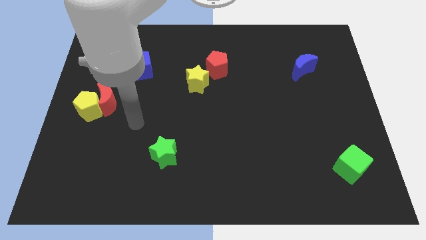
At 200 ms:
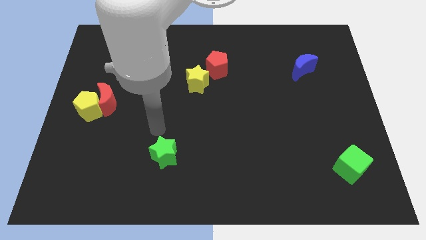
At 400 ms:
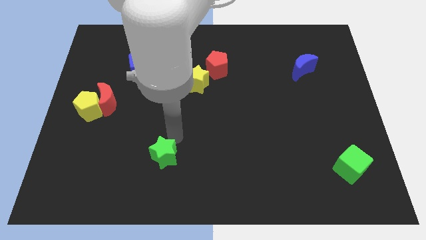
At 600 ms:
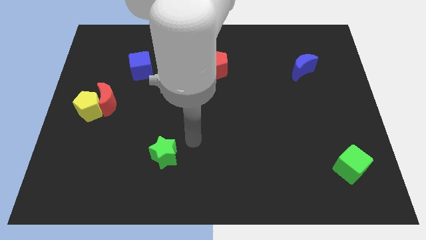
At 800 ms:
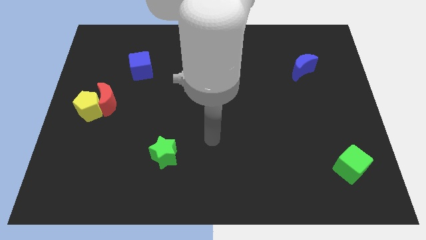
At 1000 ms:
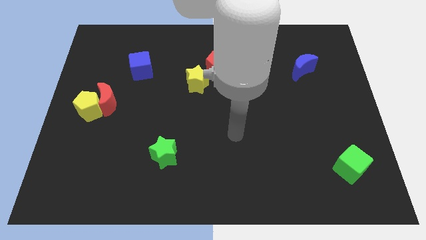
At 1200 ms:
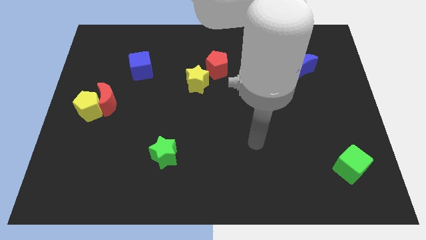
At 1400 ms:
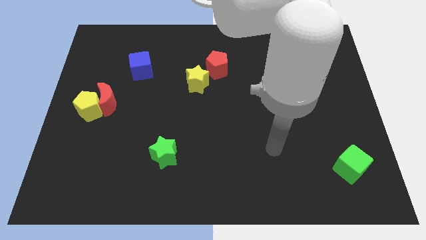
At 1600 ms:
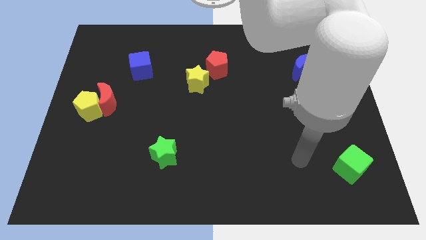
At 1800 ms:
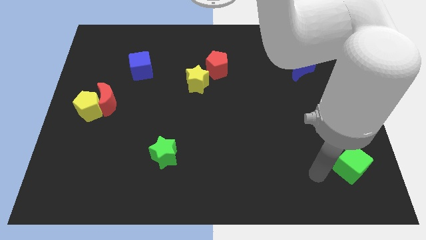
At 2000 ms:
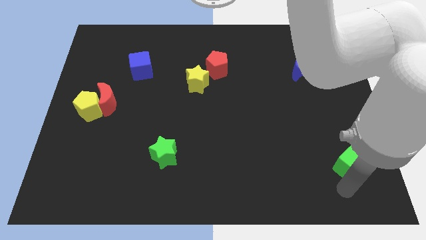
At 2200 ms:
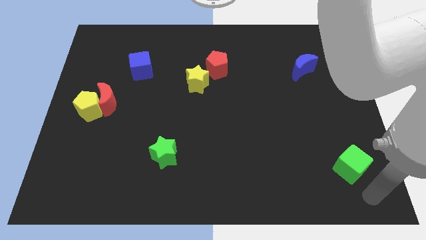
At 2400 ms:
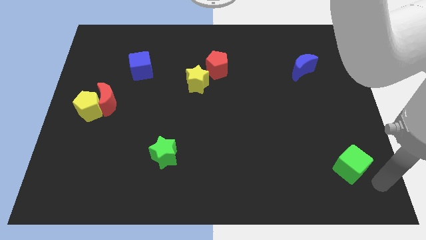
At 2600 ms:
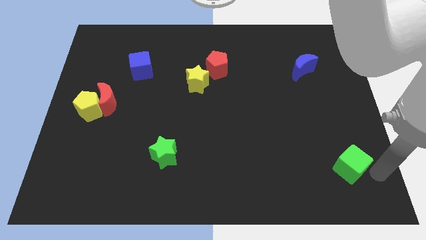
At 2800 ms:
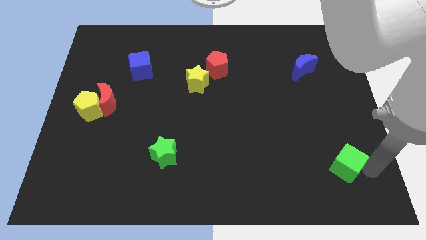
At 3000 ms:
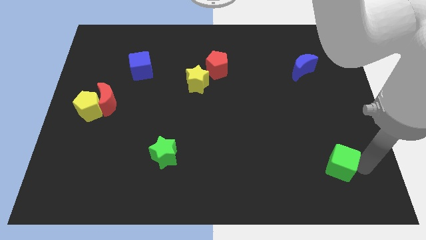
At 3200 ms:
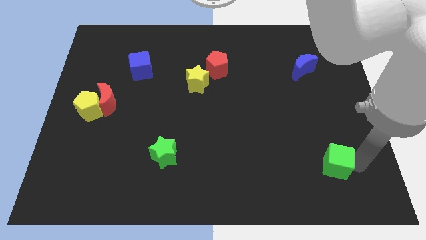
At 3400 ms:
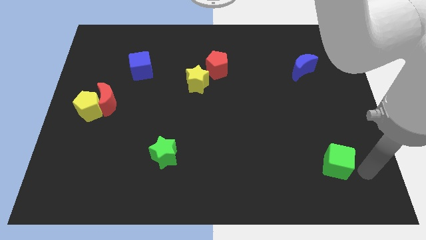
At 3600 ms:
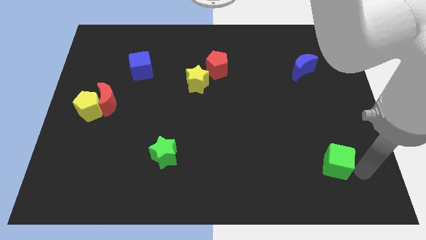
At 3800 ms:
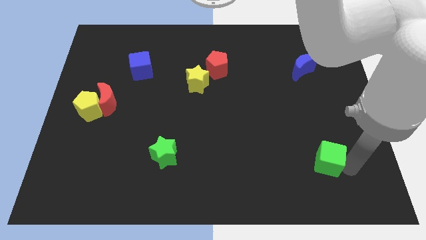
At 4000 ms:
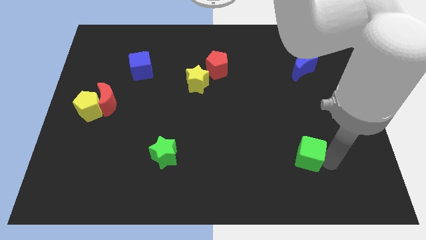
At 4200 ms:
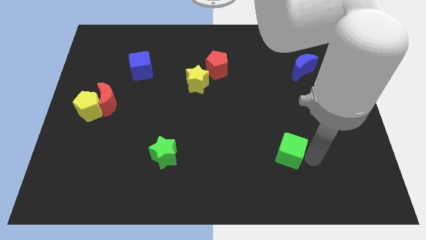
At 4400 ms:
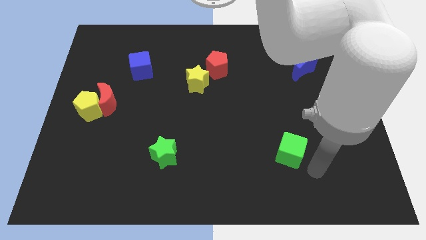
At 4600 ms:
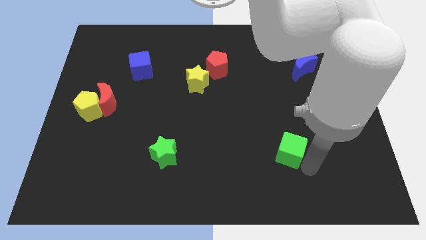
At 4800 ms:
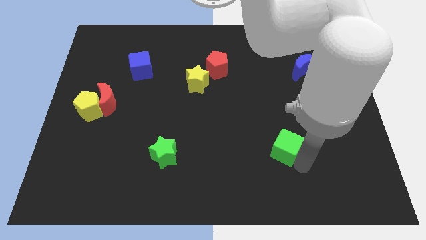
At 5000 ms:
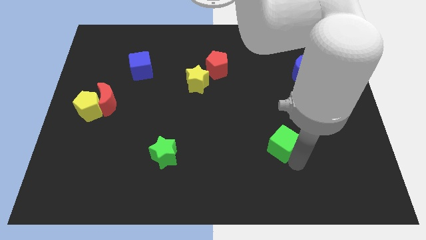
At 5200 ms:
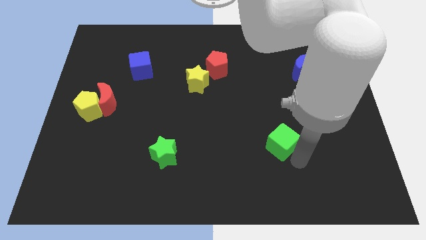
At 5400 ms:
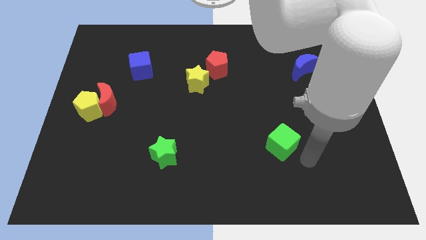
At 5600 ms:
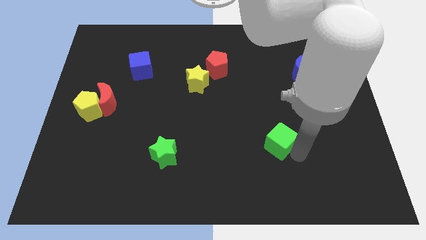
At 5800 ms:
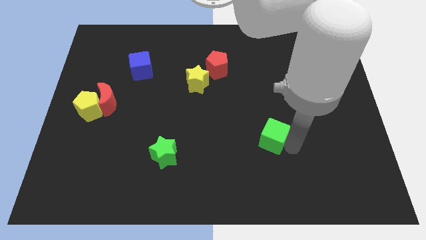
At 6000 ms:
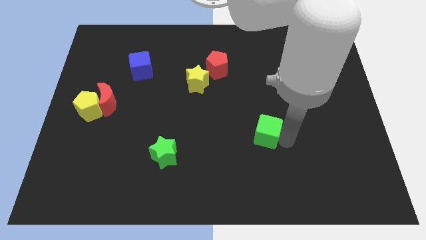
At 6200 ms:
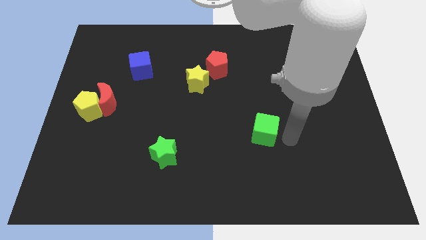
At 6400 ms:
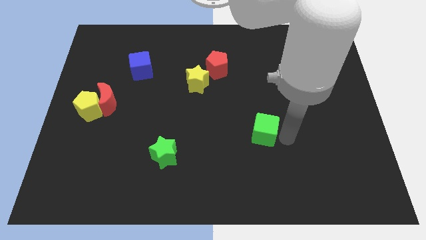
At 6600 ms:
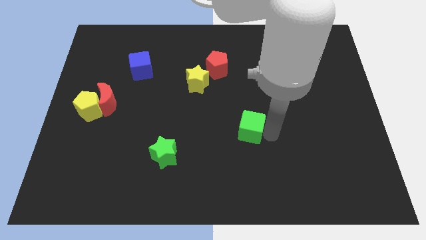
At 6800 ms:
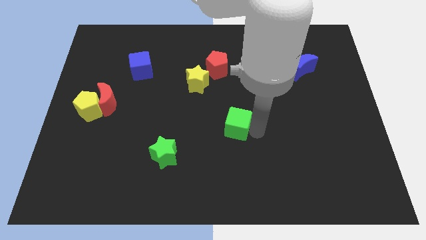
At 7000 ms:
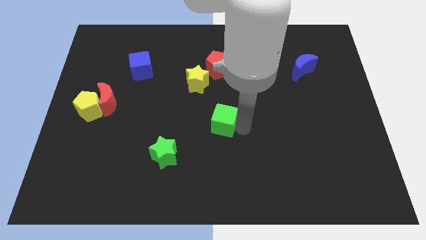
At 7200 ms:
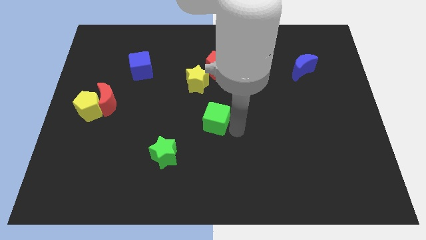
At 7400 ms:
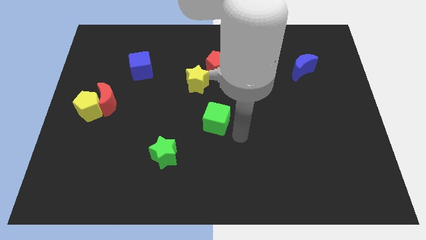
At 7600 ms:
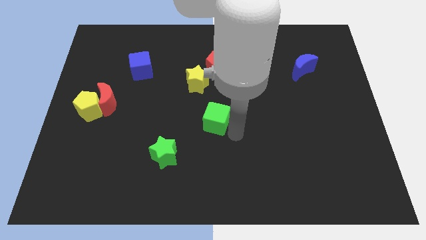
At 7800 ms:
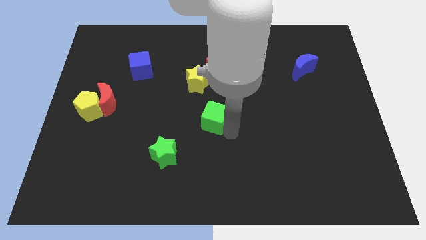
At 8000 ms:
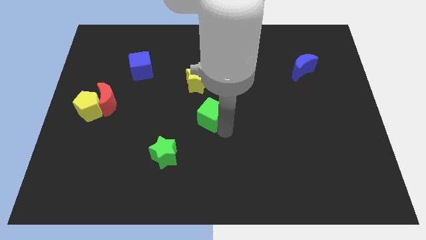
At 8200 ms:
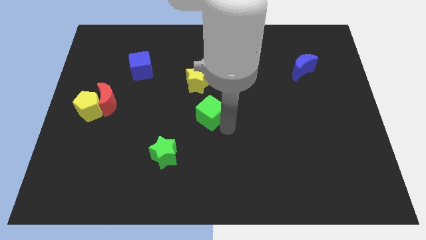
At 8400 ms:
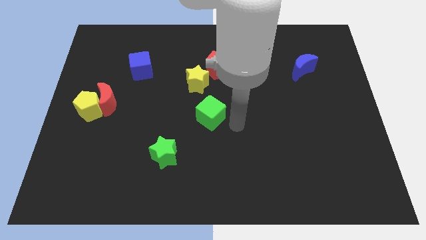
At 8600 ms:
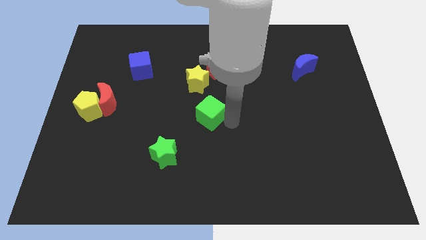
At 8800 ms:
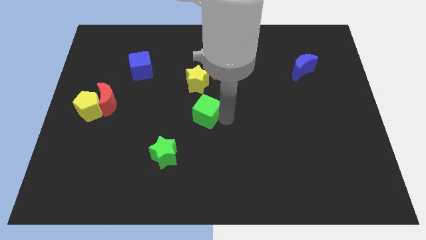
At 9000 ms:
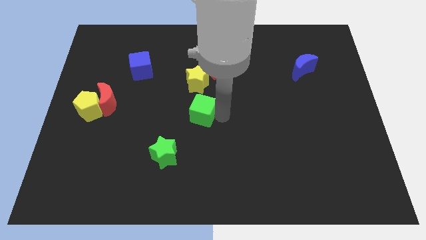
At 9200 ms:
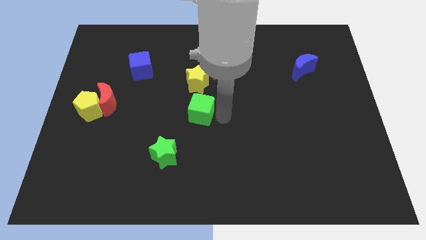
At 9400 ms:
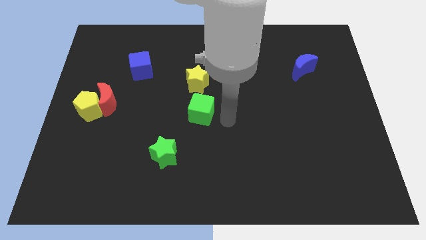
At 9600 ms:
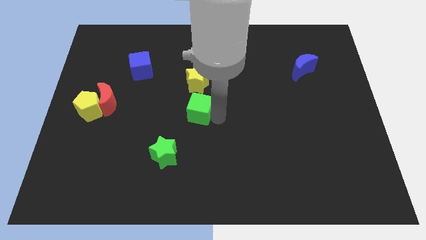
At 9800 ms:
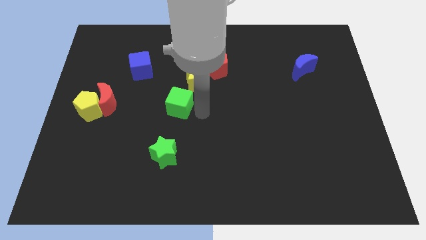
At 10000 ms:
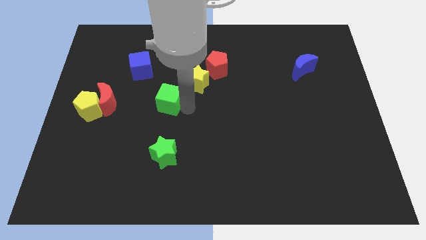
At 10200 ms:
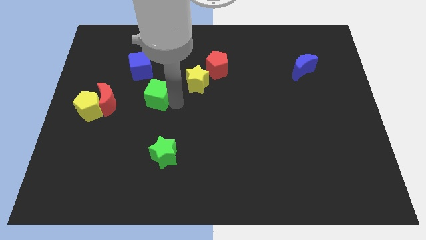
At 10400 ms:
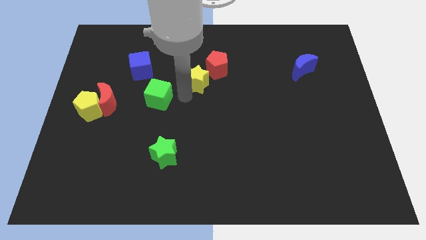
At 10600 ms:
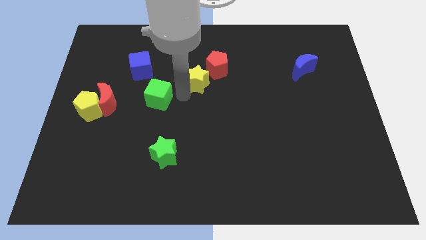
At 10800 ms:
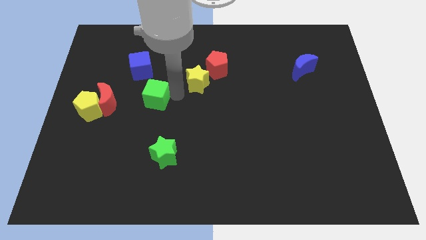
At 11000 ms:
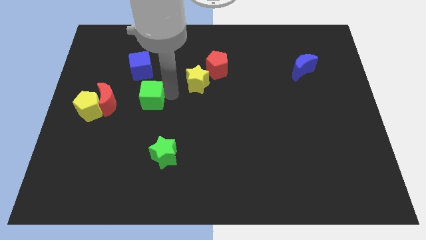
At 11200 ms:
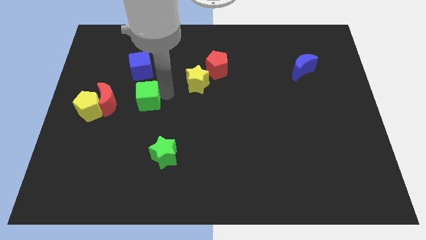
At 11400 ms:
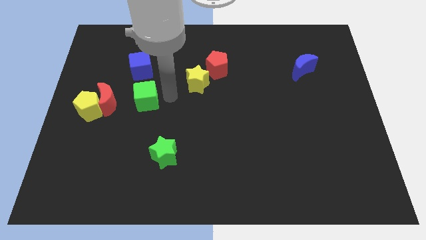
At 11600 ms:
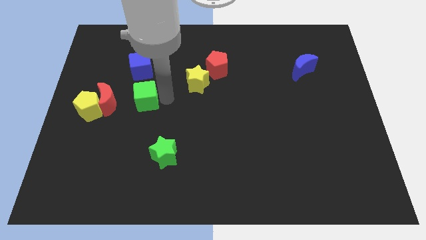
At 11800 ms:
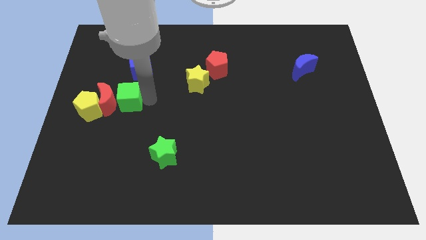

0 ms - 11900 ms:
move the green cube next to the red moon

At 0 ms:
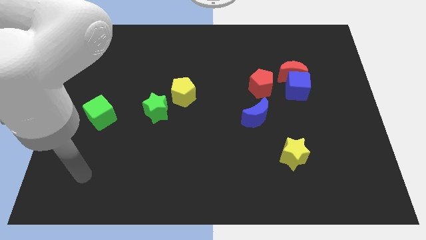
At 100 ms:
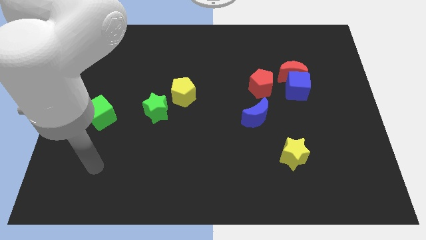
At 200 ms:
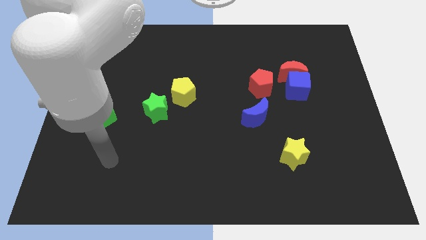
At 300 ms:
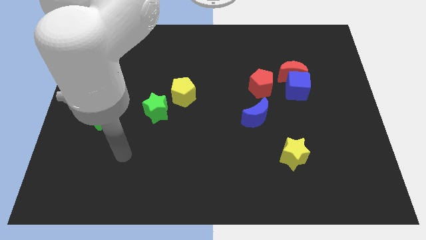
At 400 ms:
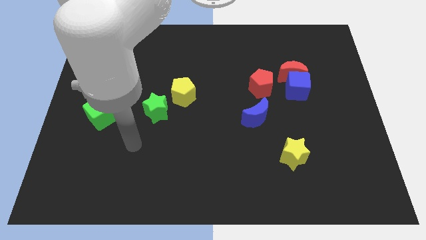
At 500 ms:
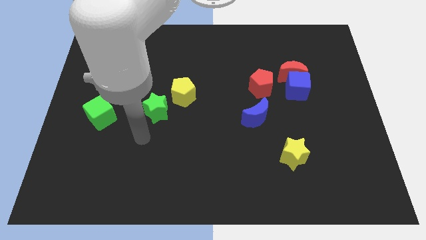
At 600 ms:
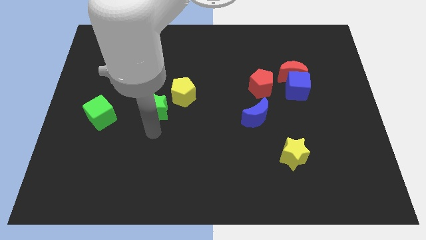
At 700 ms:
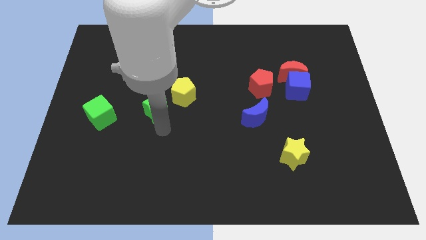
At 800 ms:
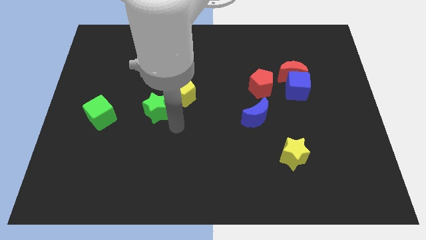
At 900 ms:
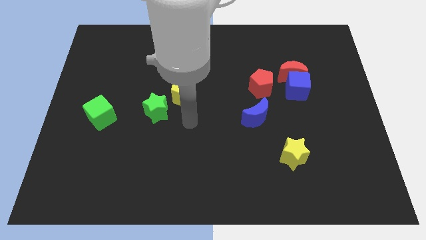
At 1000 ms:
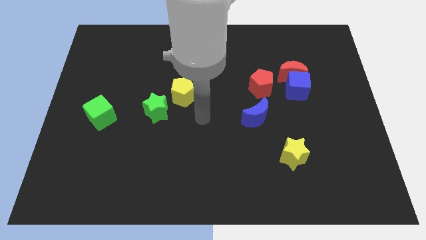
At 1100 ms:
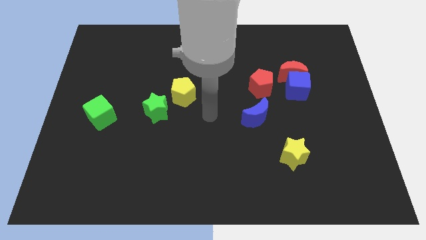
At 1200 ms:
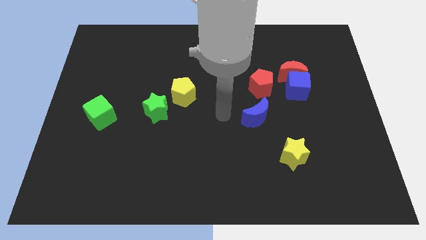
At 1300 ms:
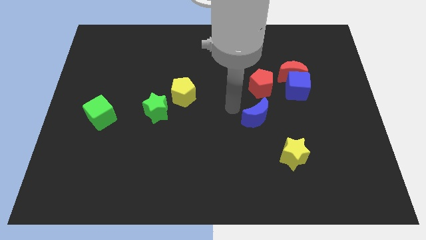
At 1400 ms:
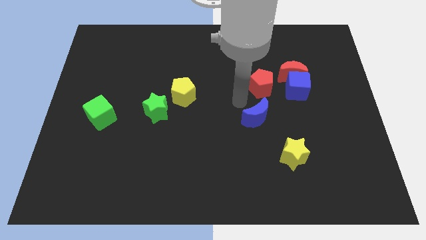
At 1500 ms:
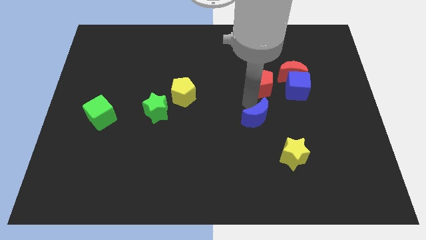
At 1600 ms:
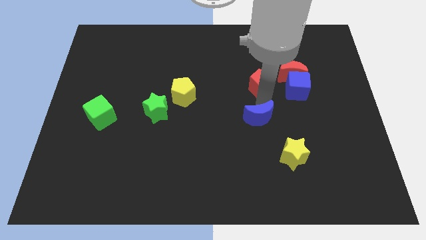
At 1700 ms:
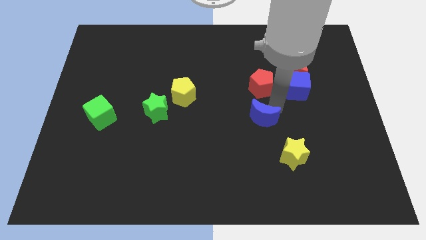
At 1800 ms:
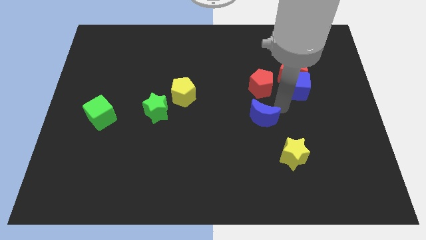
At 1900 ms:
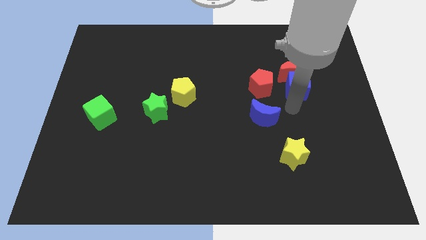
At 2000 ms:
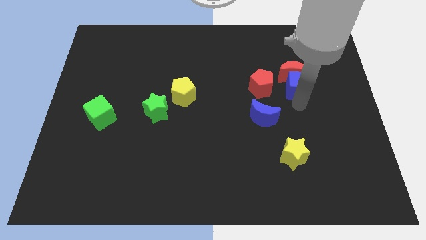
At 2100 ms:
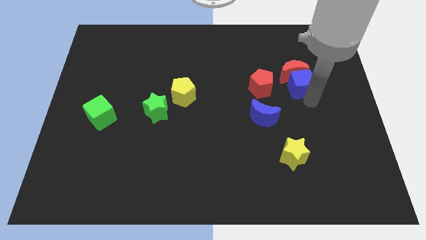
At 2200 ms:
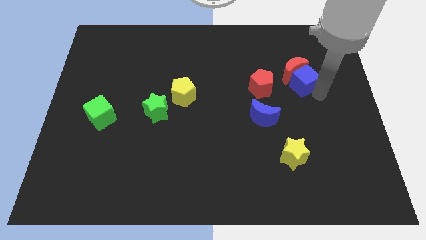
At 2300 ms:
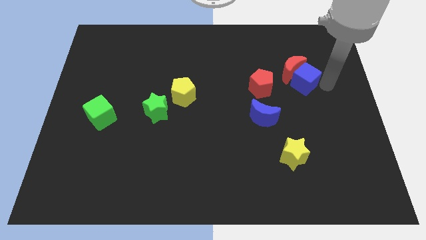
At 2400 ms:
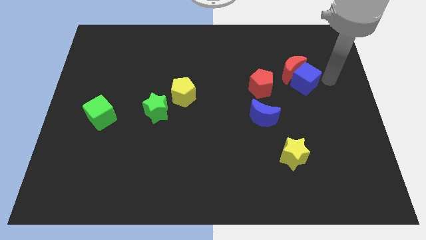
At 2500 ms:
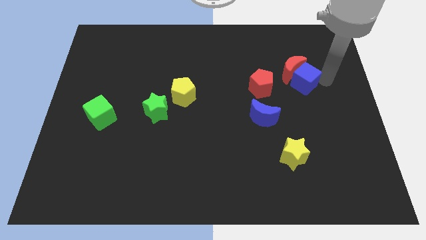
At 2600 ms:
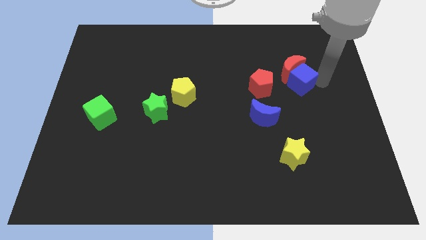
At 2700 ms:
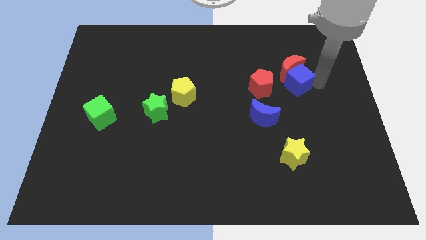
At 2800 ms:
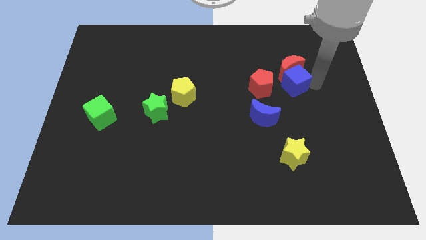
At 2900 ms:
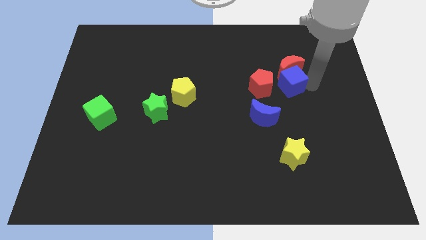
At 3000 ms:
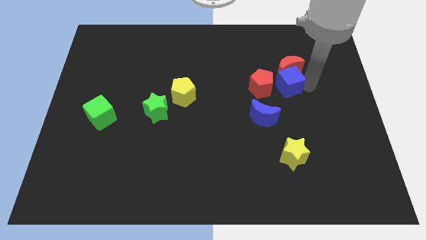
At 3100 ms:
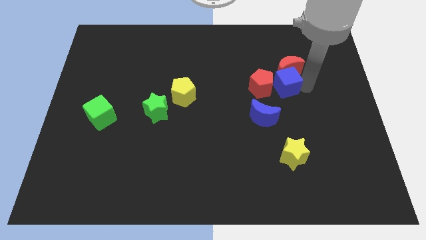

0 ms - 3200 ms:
put the blue cube close to the red pentagon
